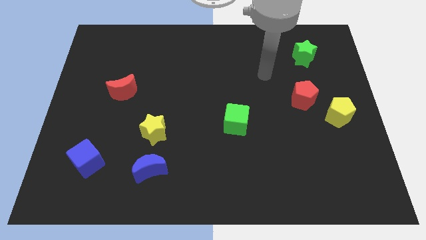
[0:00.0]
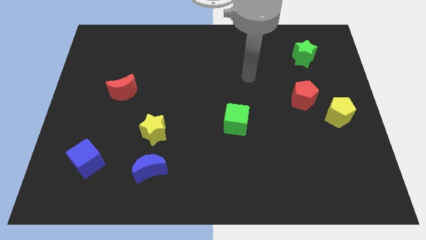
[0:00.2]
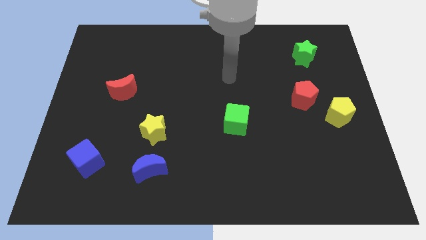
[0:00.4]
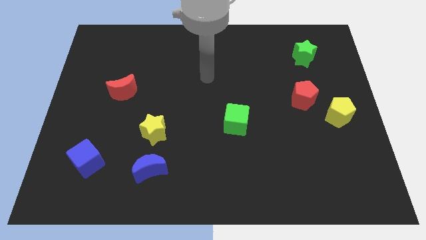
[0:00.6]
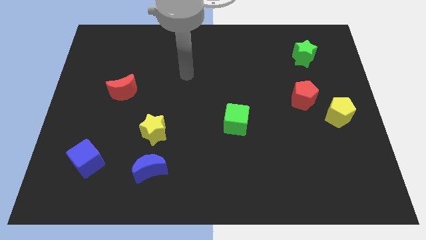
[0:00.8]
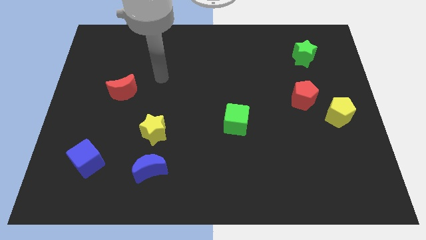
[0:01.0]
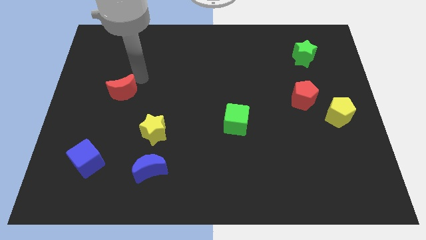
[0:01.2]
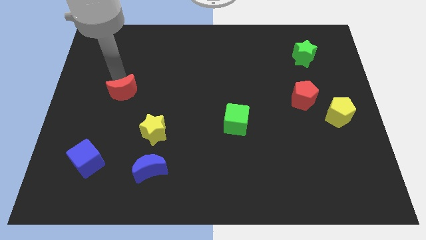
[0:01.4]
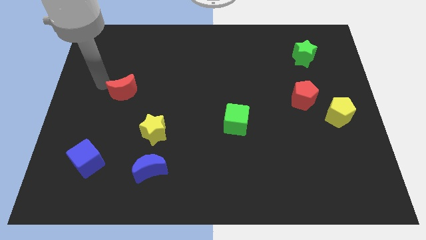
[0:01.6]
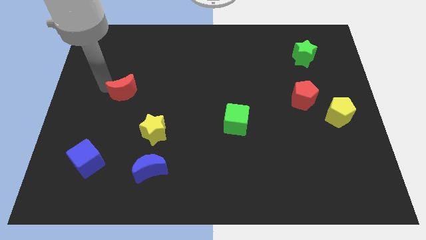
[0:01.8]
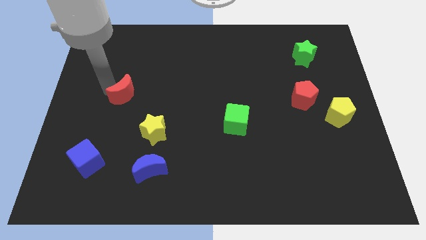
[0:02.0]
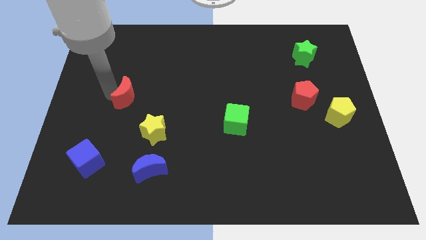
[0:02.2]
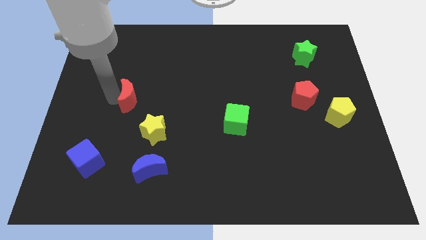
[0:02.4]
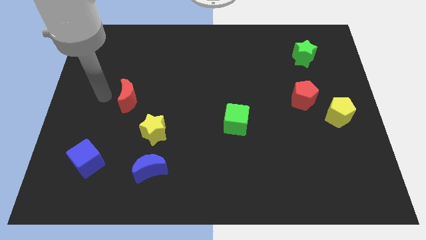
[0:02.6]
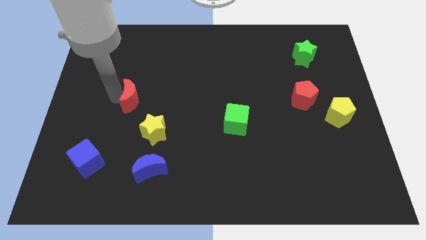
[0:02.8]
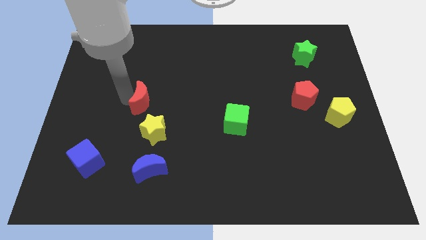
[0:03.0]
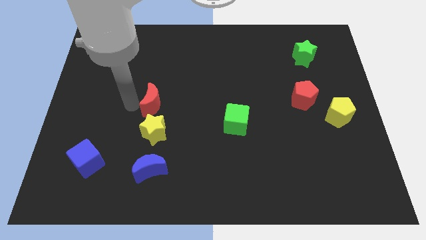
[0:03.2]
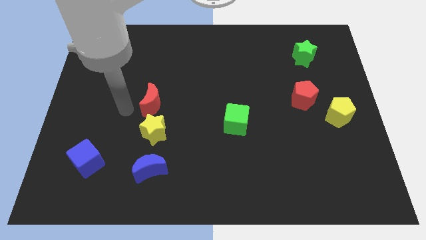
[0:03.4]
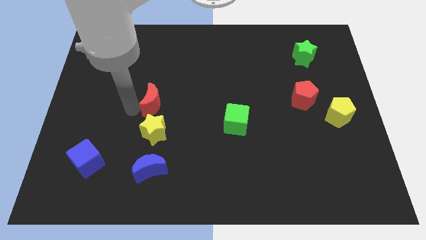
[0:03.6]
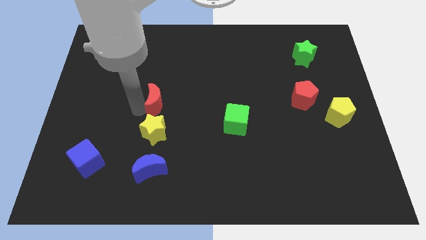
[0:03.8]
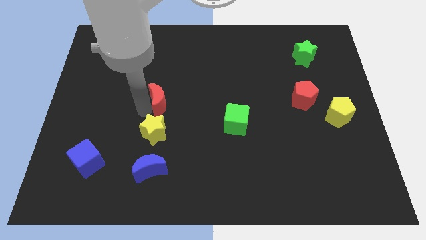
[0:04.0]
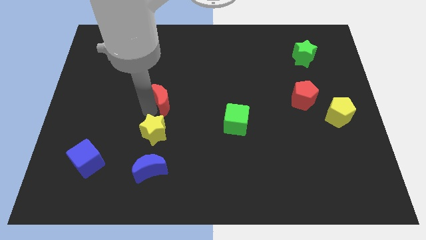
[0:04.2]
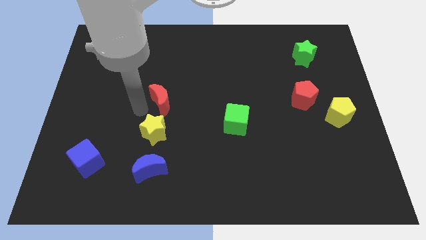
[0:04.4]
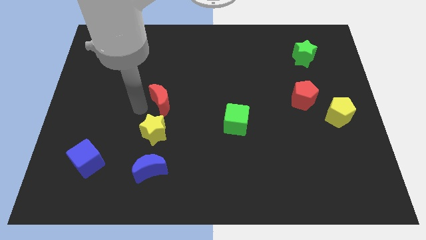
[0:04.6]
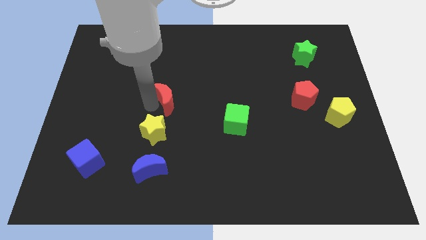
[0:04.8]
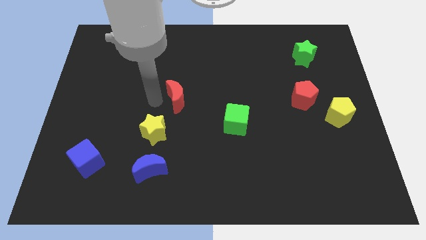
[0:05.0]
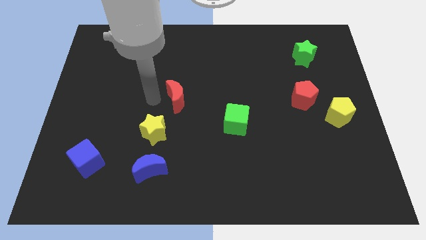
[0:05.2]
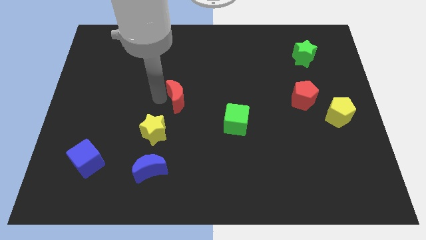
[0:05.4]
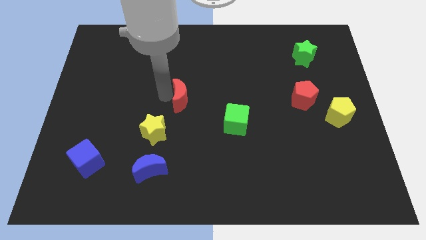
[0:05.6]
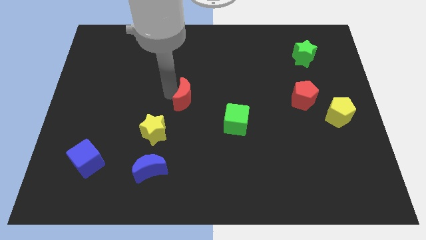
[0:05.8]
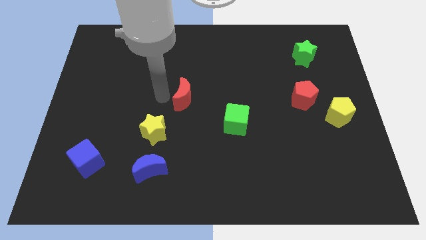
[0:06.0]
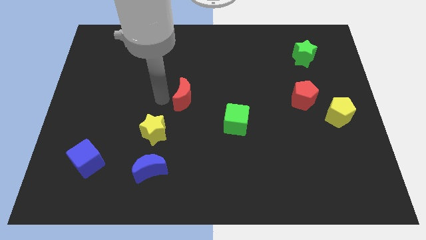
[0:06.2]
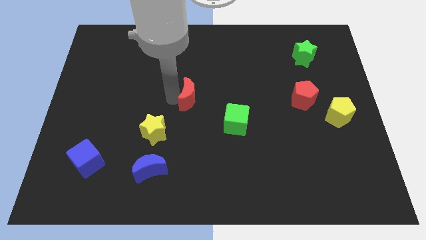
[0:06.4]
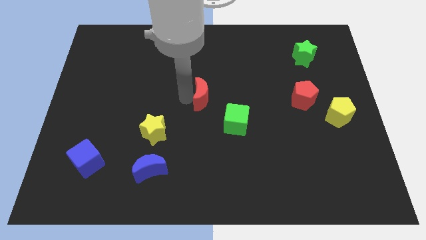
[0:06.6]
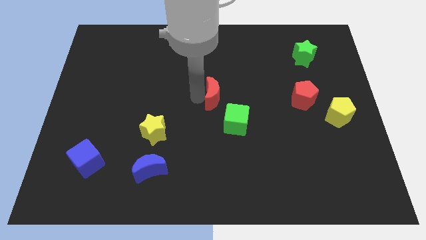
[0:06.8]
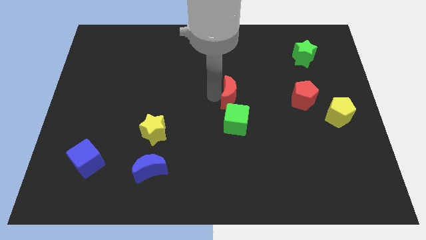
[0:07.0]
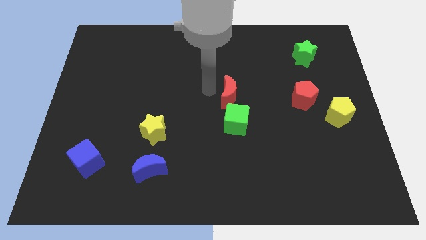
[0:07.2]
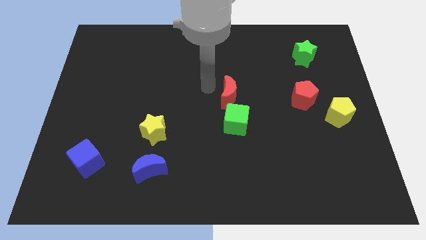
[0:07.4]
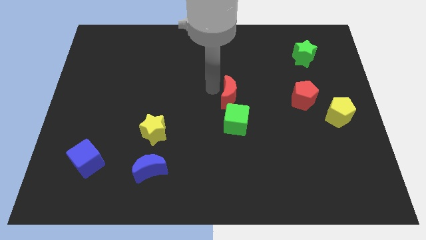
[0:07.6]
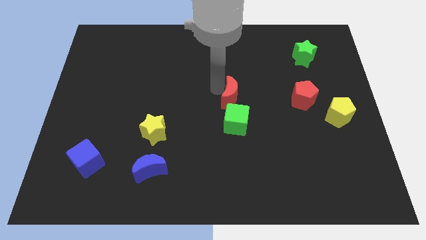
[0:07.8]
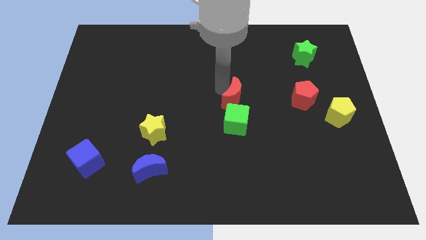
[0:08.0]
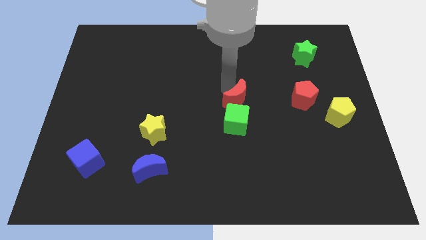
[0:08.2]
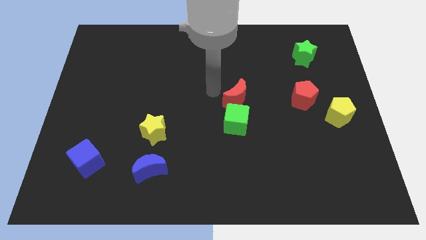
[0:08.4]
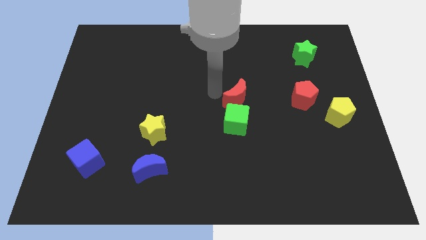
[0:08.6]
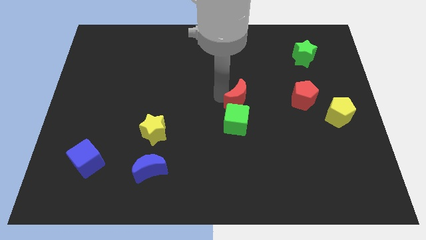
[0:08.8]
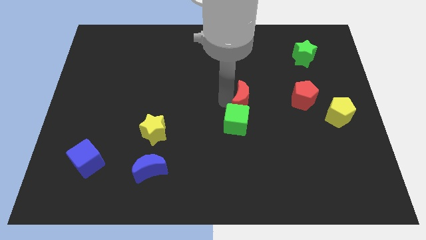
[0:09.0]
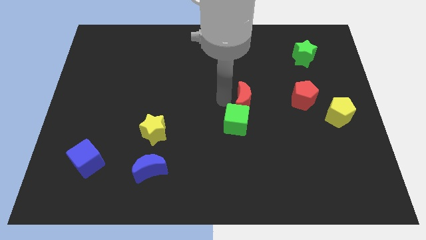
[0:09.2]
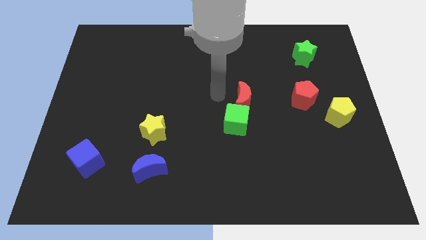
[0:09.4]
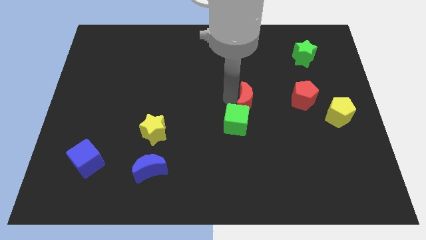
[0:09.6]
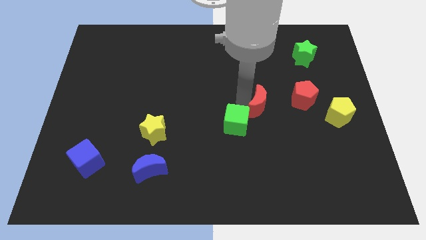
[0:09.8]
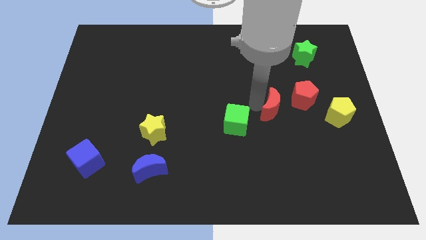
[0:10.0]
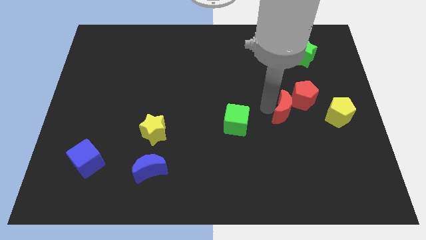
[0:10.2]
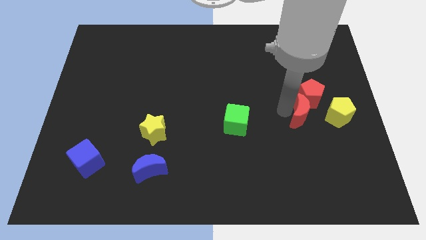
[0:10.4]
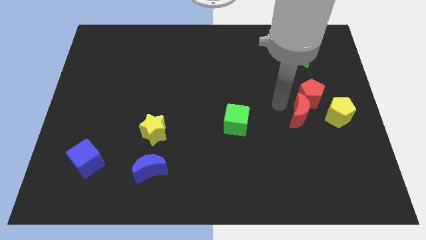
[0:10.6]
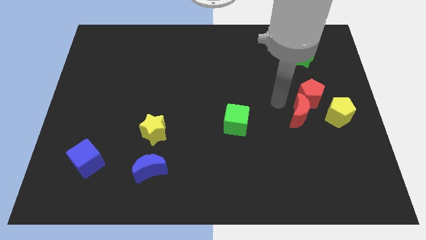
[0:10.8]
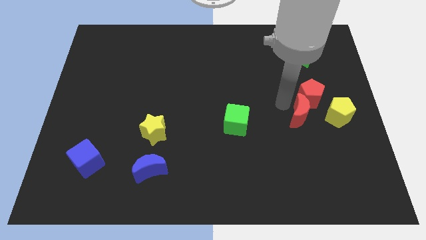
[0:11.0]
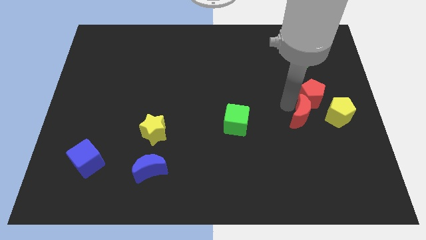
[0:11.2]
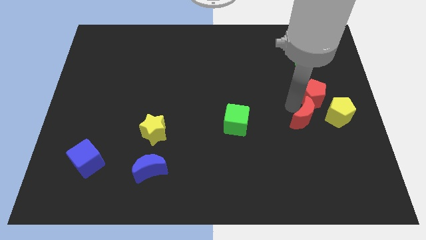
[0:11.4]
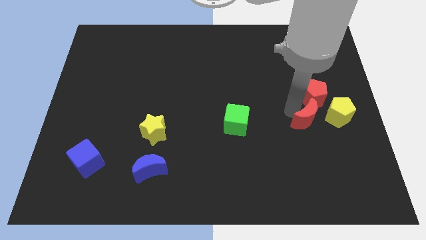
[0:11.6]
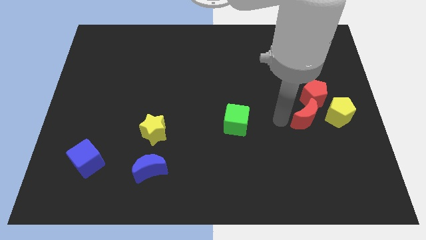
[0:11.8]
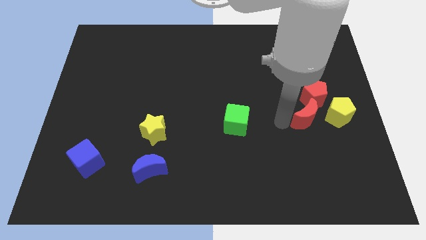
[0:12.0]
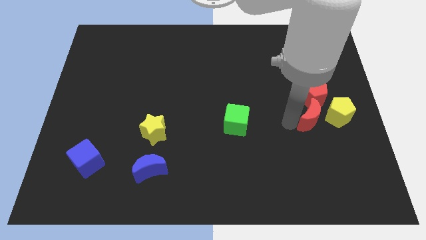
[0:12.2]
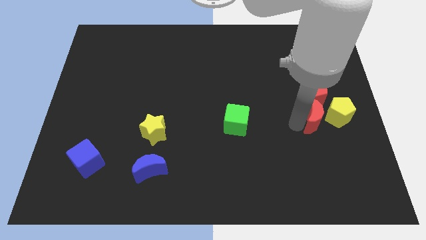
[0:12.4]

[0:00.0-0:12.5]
push the red moon to the yellow pentagon

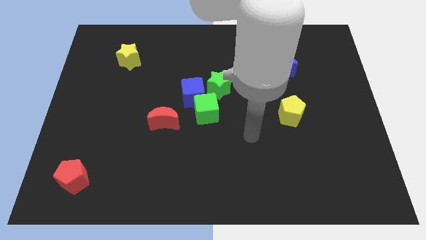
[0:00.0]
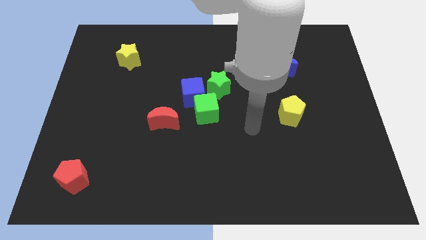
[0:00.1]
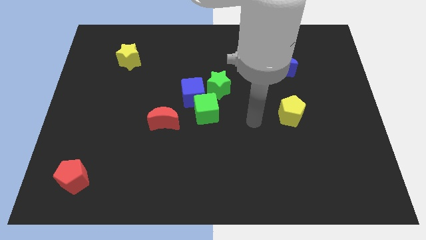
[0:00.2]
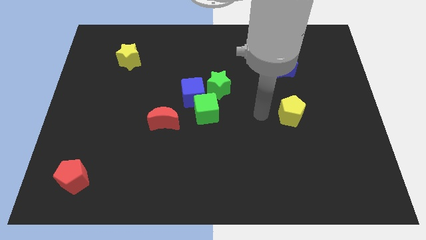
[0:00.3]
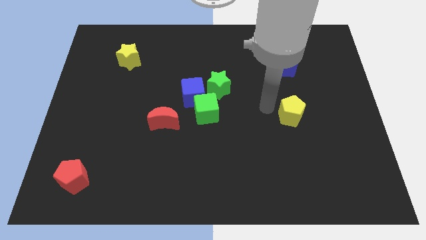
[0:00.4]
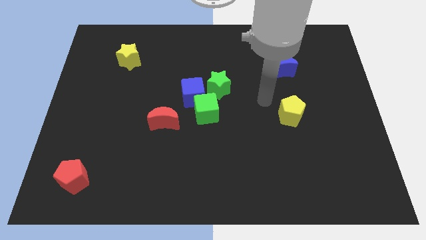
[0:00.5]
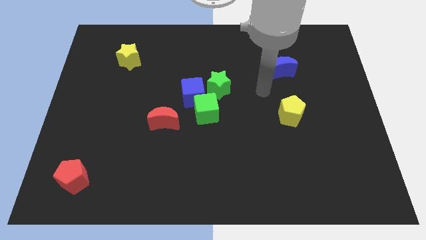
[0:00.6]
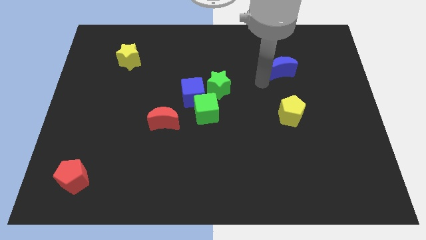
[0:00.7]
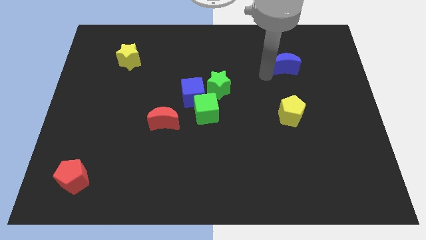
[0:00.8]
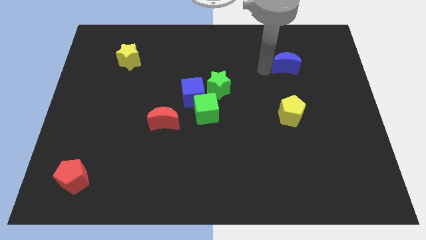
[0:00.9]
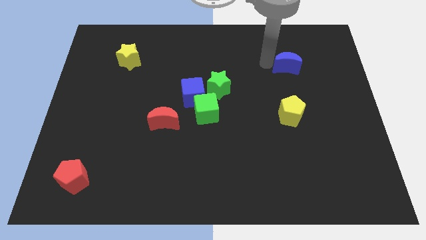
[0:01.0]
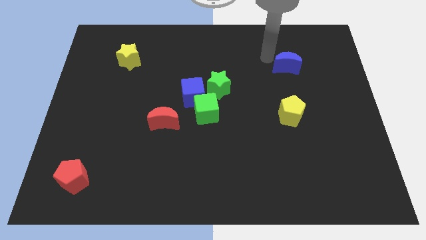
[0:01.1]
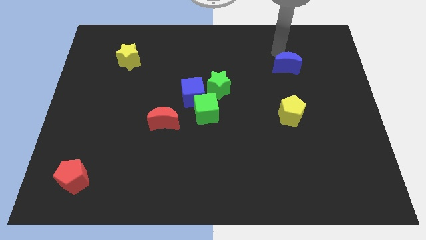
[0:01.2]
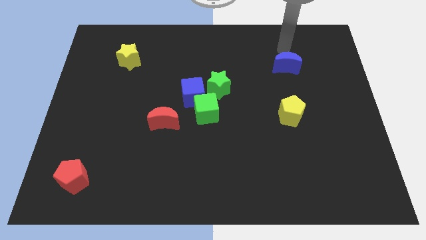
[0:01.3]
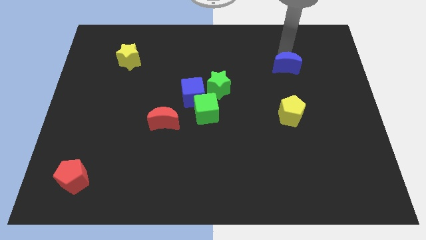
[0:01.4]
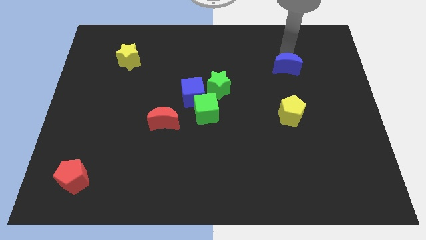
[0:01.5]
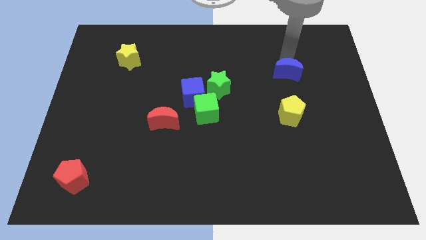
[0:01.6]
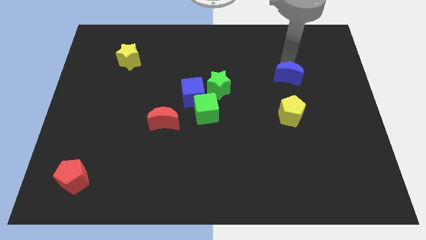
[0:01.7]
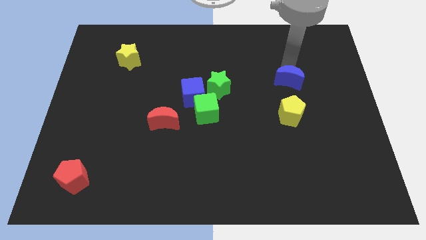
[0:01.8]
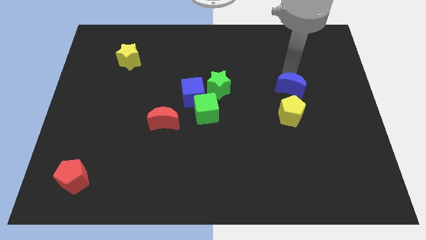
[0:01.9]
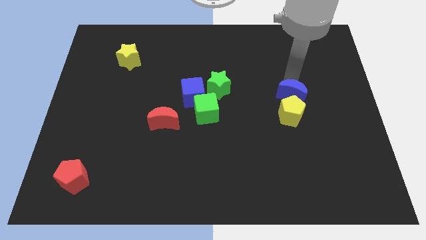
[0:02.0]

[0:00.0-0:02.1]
move the blue moon next to the yellow pentagon
